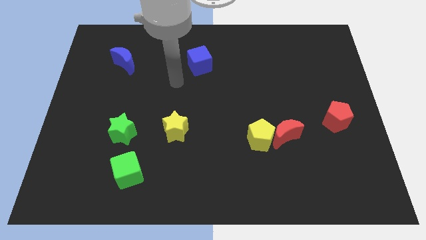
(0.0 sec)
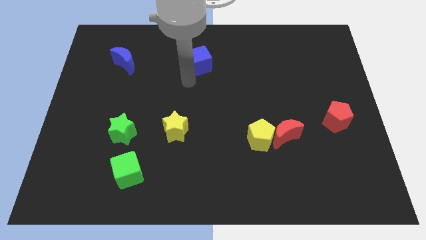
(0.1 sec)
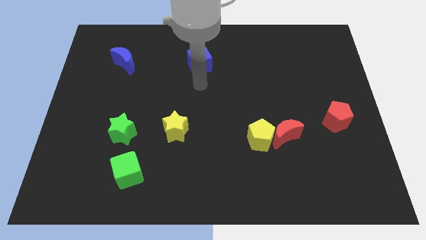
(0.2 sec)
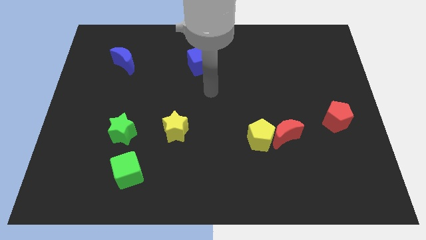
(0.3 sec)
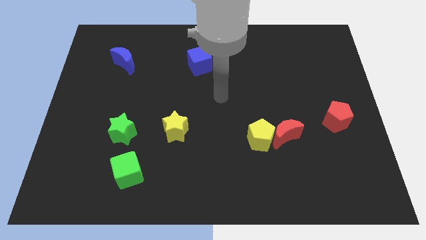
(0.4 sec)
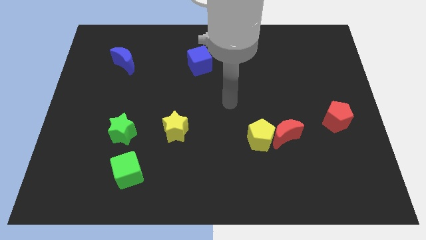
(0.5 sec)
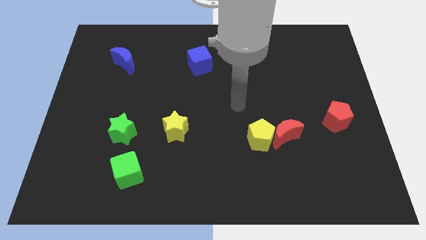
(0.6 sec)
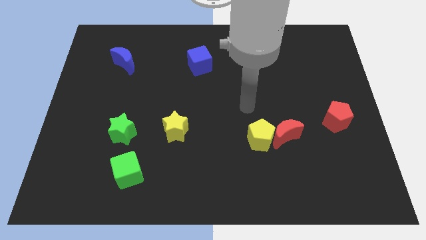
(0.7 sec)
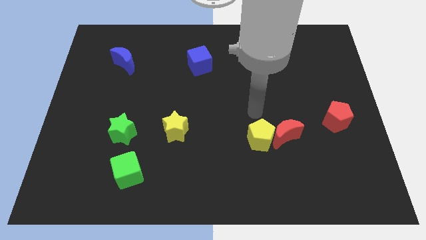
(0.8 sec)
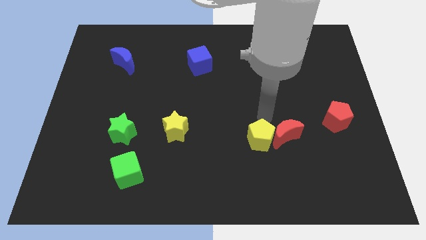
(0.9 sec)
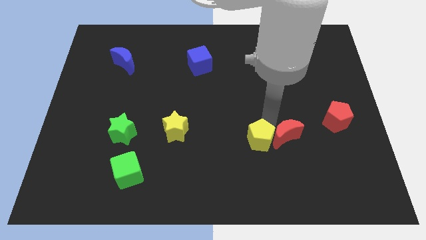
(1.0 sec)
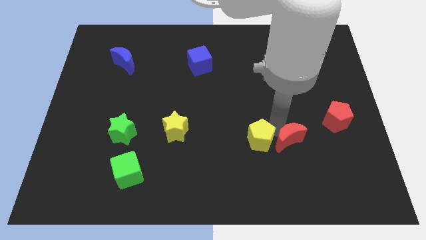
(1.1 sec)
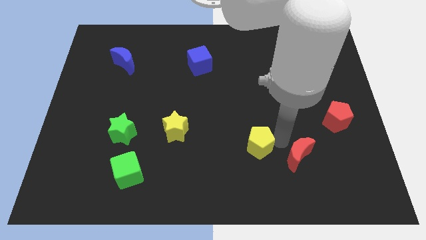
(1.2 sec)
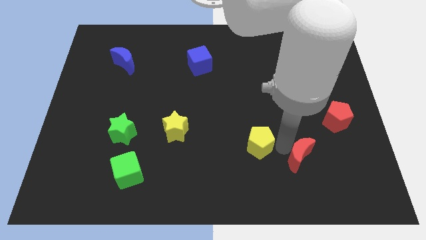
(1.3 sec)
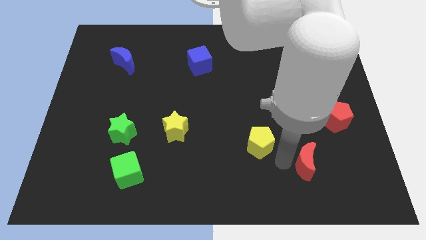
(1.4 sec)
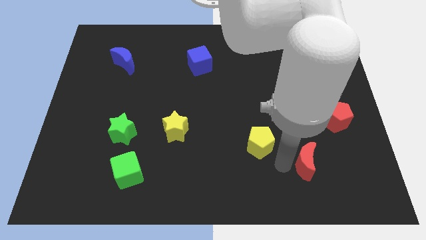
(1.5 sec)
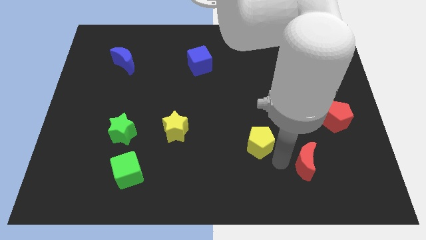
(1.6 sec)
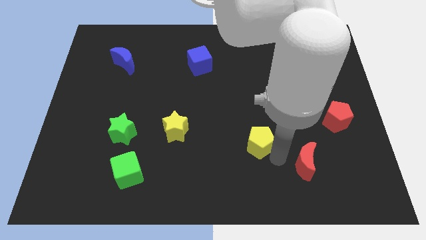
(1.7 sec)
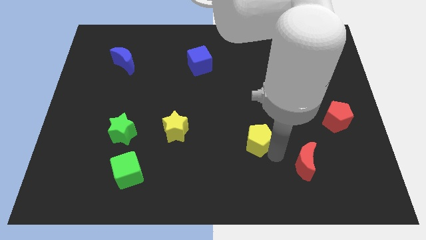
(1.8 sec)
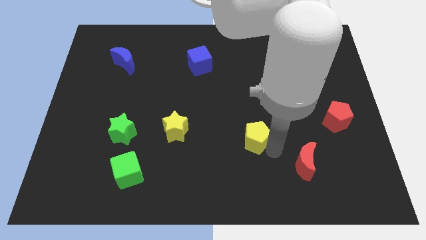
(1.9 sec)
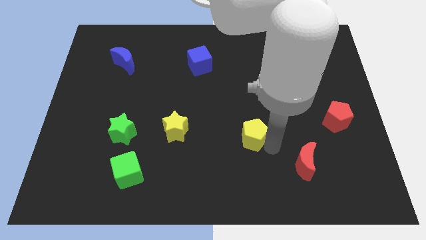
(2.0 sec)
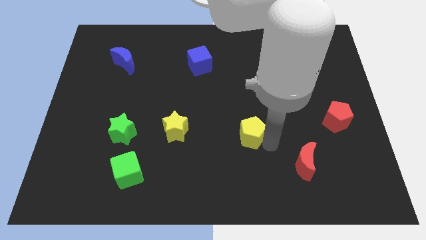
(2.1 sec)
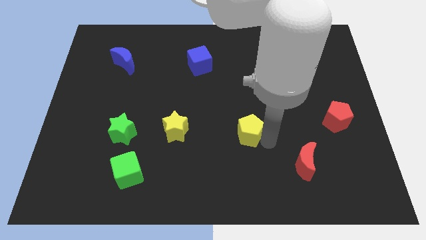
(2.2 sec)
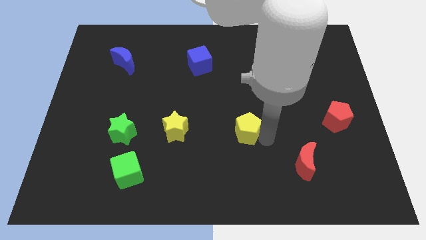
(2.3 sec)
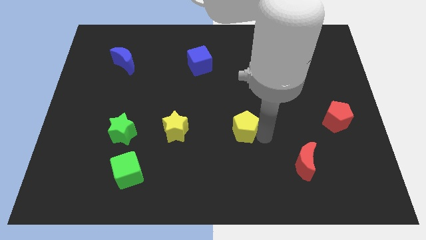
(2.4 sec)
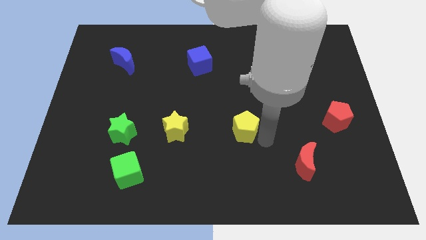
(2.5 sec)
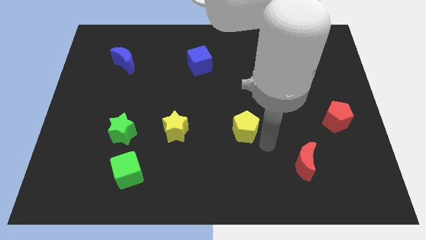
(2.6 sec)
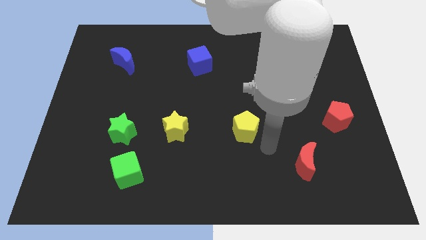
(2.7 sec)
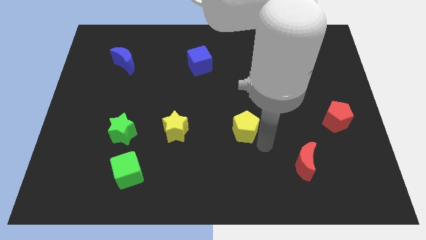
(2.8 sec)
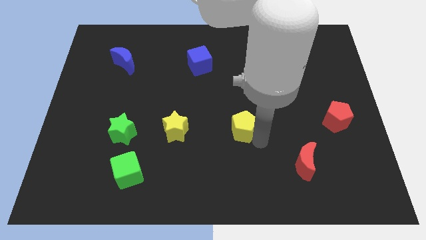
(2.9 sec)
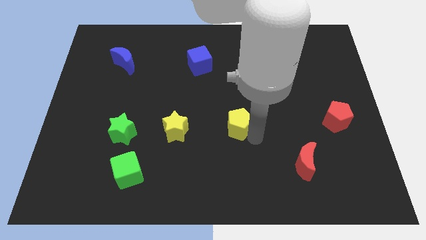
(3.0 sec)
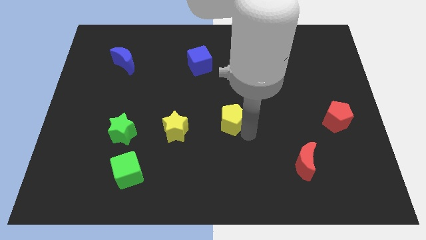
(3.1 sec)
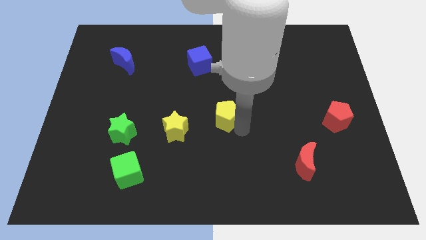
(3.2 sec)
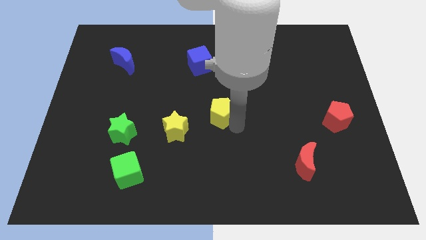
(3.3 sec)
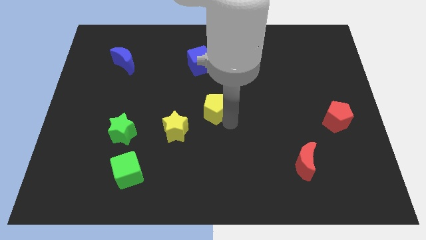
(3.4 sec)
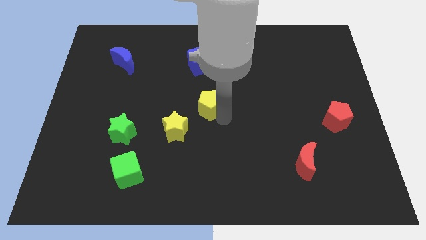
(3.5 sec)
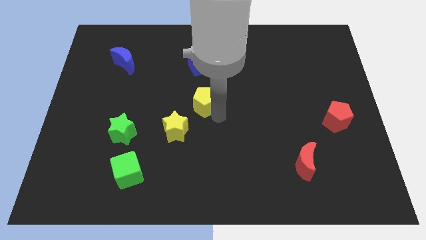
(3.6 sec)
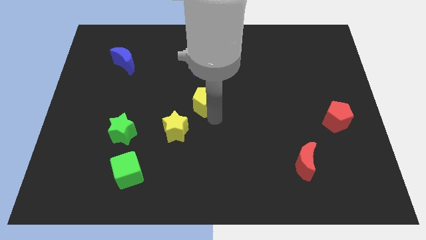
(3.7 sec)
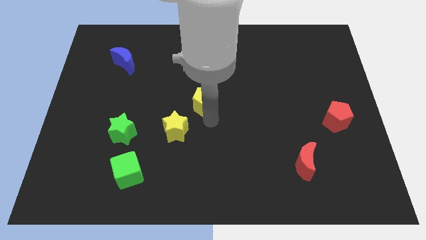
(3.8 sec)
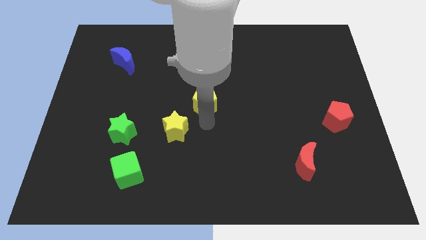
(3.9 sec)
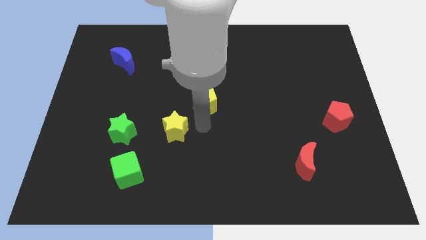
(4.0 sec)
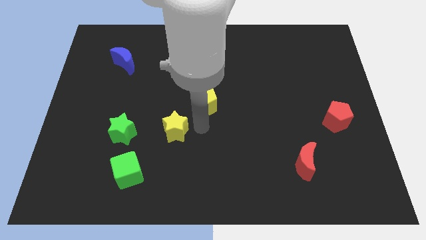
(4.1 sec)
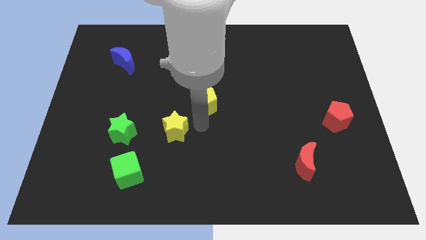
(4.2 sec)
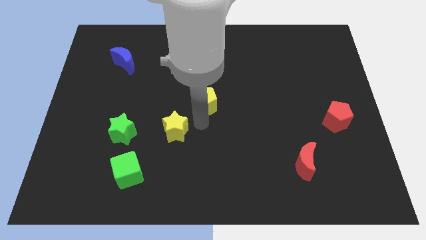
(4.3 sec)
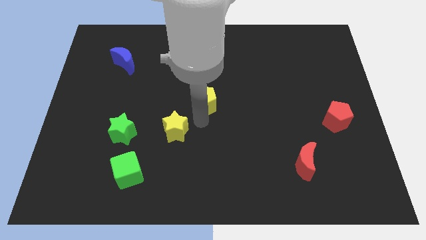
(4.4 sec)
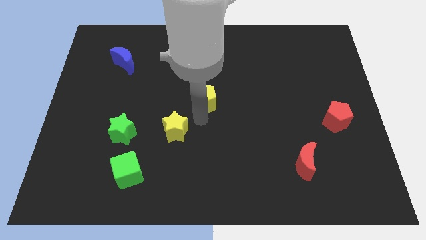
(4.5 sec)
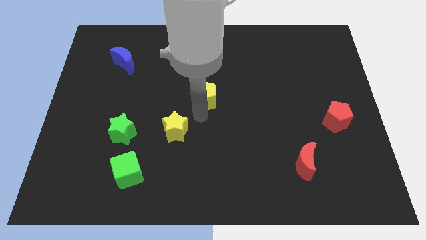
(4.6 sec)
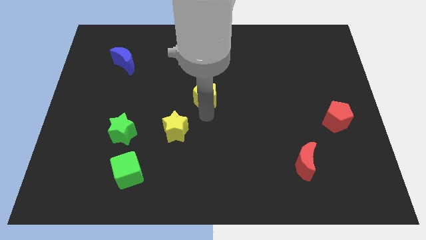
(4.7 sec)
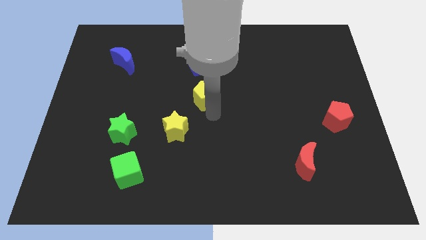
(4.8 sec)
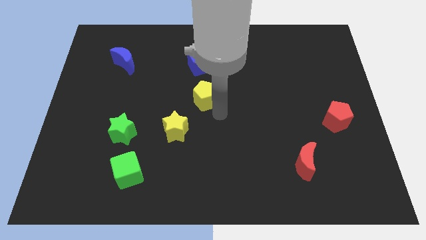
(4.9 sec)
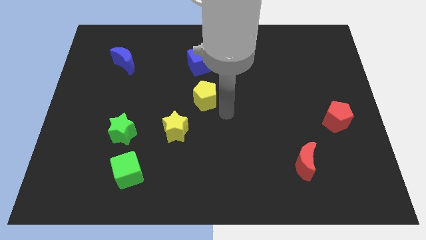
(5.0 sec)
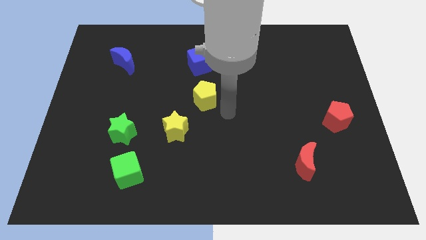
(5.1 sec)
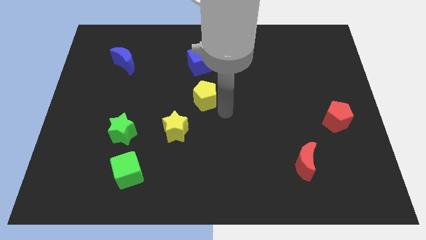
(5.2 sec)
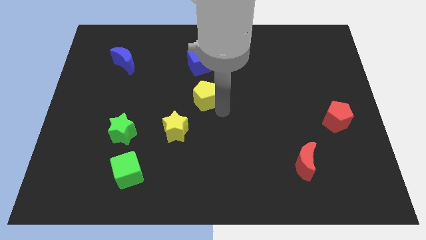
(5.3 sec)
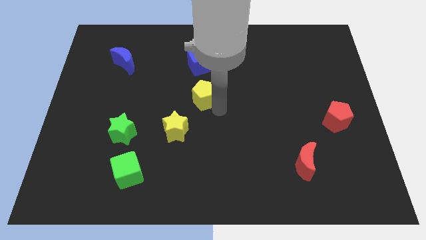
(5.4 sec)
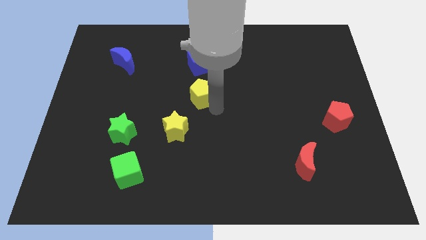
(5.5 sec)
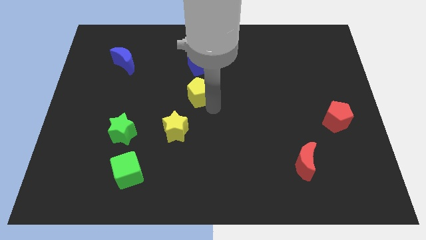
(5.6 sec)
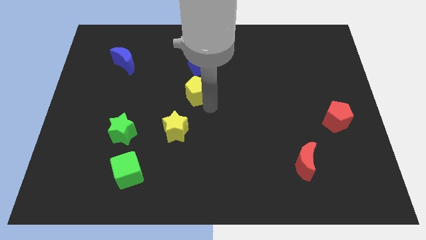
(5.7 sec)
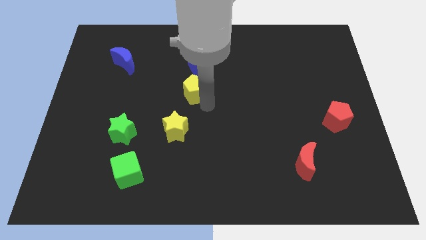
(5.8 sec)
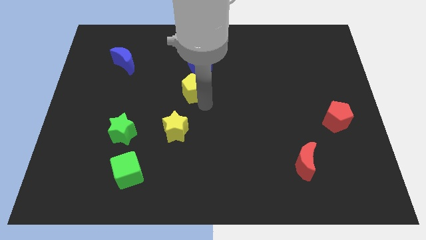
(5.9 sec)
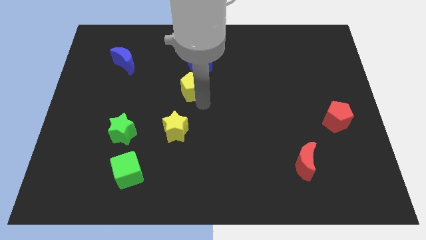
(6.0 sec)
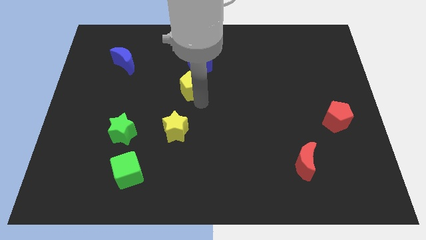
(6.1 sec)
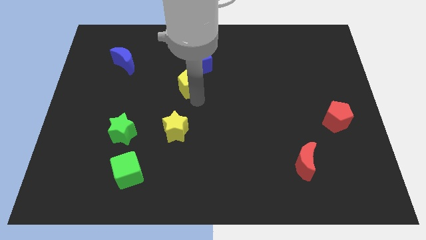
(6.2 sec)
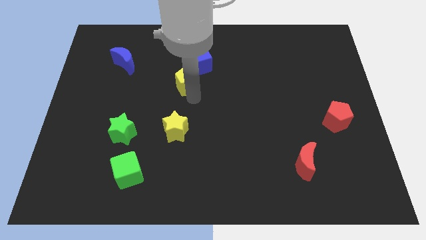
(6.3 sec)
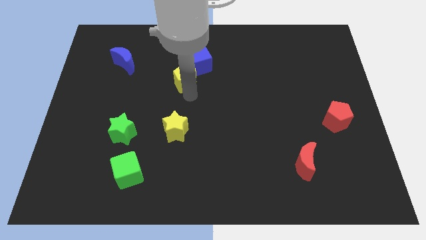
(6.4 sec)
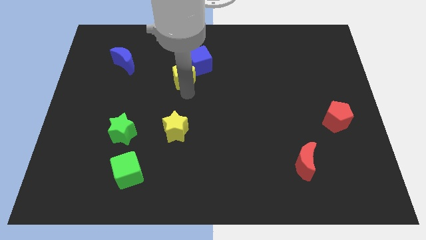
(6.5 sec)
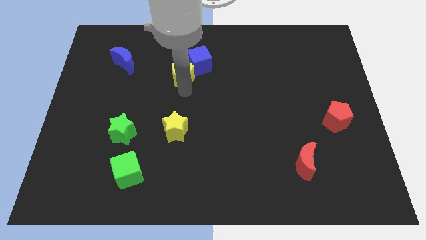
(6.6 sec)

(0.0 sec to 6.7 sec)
slide the yellow pentagon just left of the blue cube
